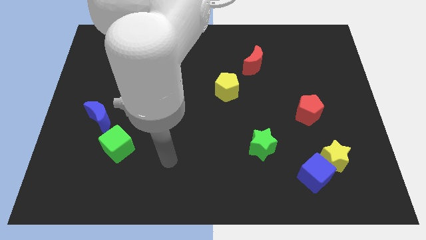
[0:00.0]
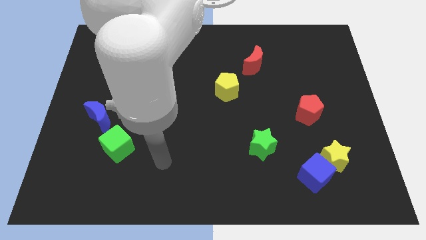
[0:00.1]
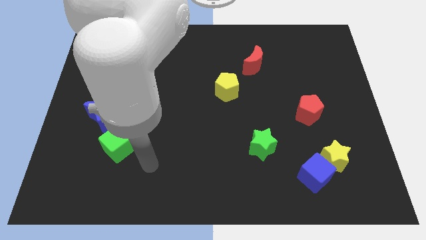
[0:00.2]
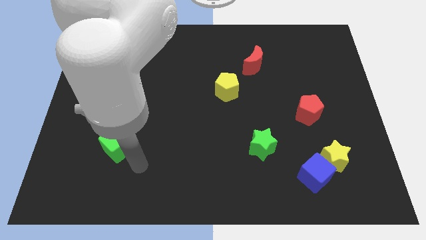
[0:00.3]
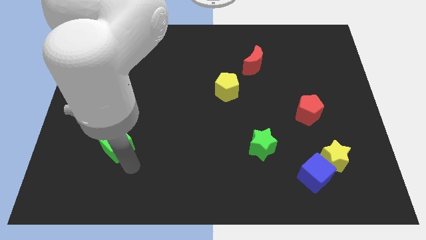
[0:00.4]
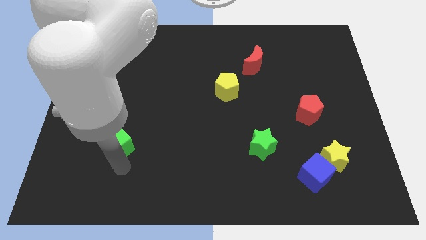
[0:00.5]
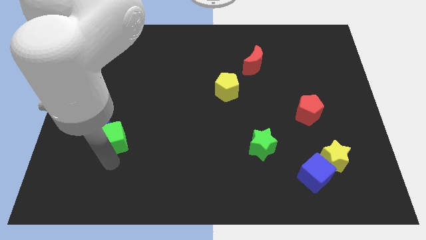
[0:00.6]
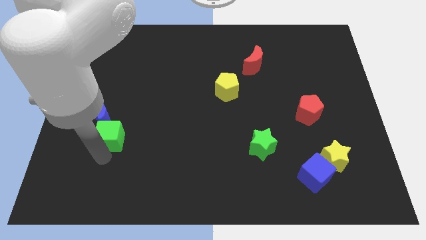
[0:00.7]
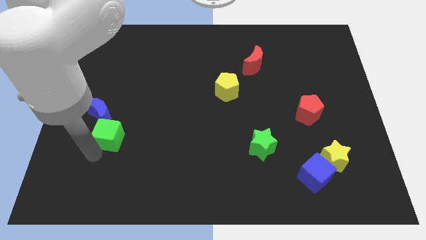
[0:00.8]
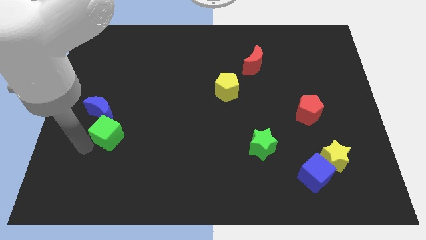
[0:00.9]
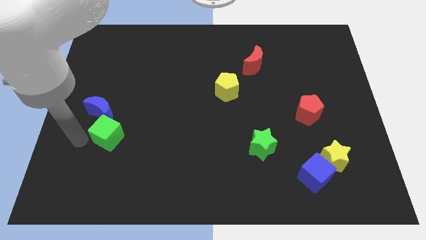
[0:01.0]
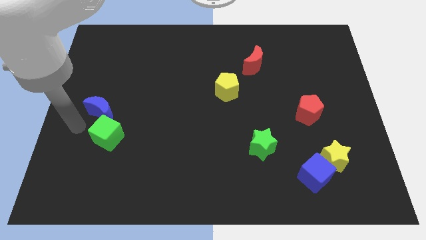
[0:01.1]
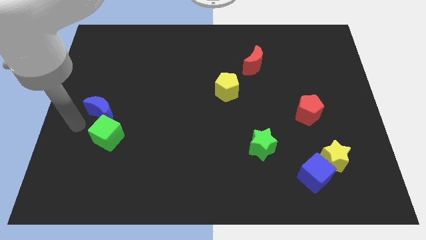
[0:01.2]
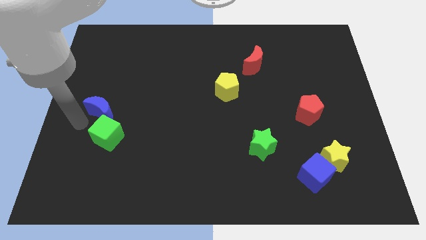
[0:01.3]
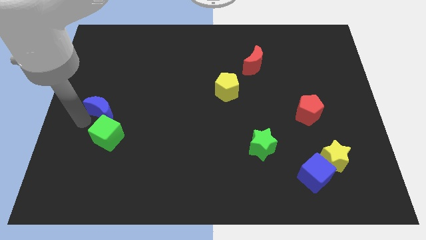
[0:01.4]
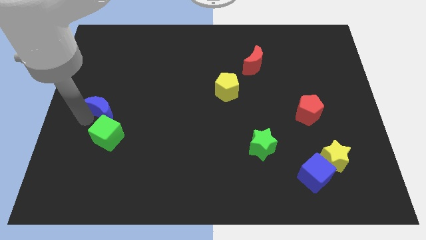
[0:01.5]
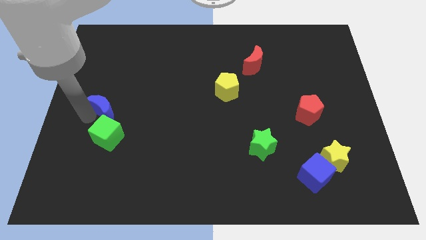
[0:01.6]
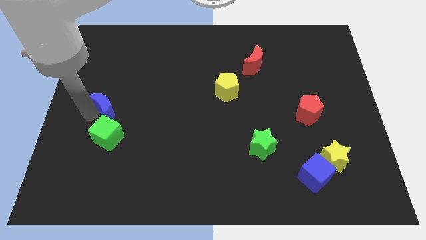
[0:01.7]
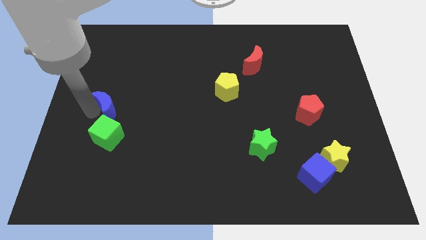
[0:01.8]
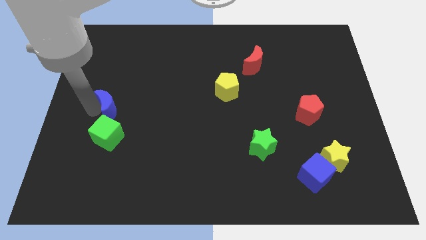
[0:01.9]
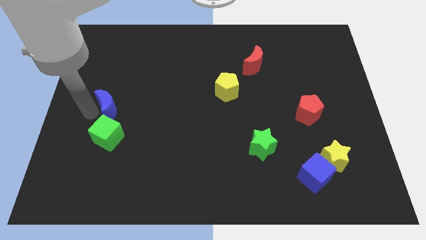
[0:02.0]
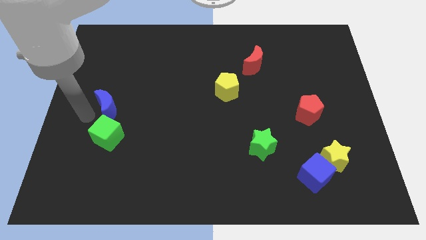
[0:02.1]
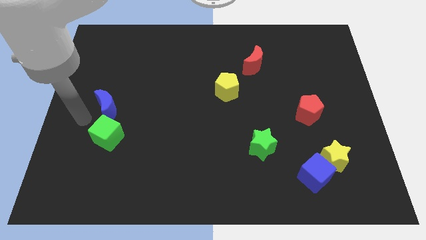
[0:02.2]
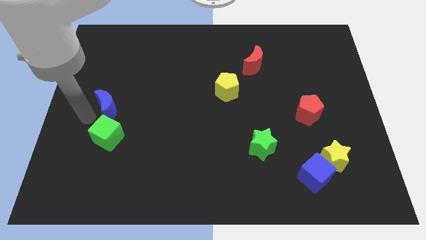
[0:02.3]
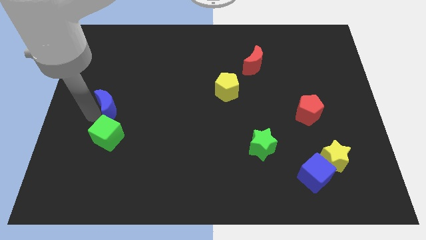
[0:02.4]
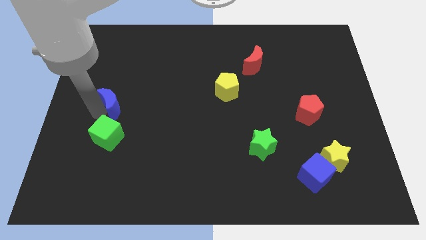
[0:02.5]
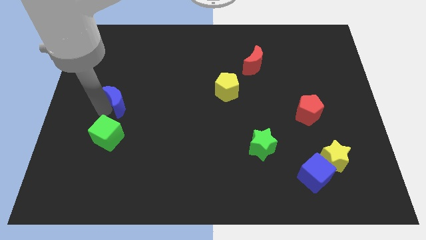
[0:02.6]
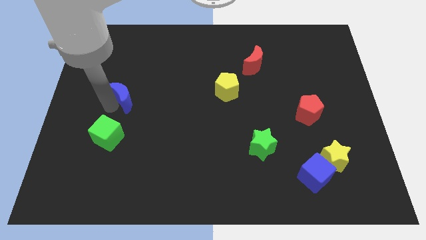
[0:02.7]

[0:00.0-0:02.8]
slightly slide the blue moon diagonally upwards and to the right

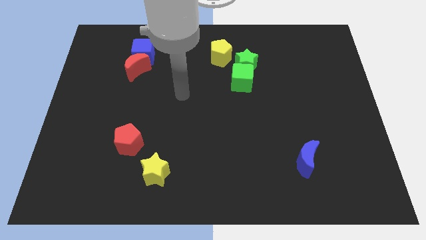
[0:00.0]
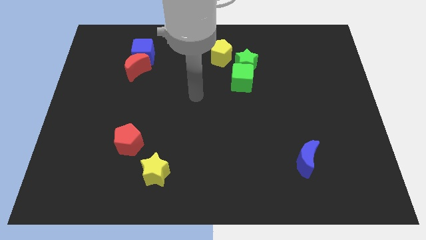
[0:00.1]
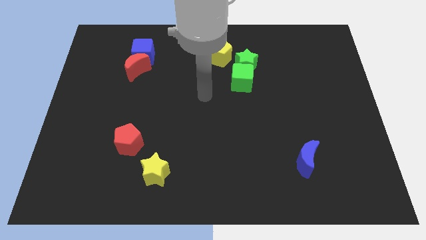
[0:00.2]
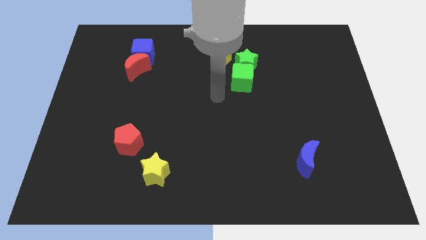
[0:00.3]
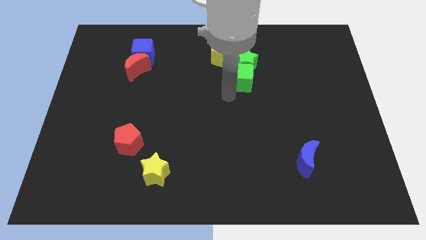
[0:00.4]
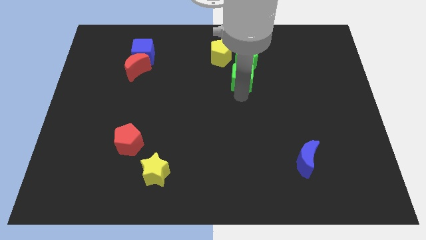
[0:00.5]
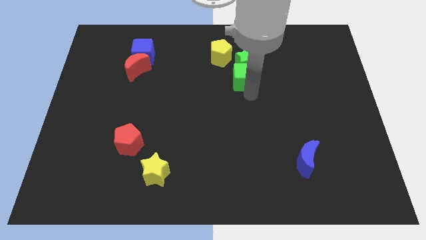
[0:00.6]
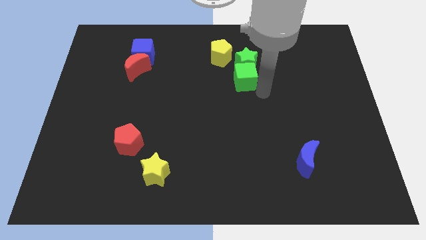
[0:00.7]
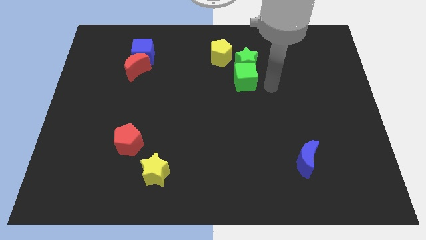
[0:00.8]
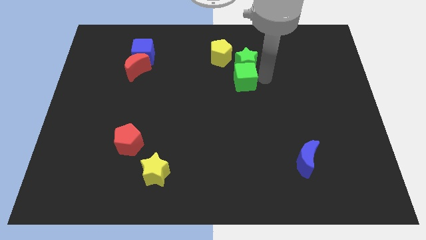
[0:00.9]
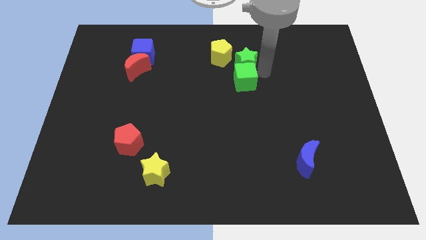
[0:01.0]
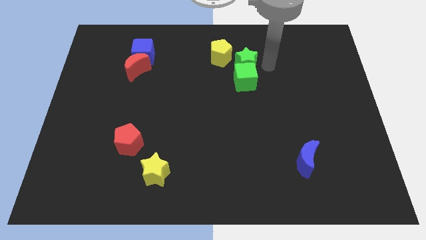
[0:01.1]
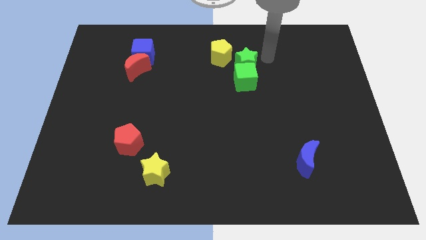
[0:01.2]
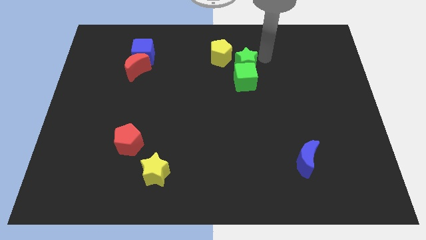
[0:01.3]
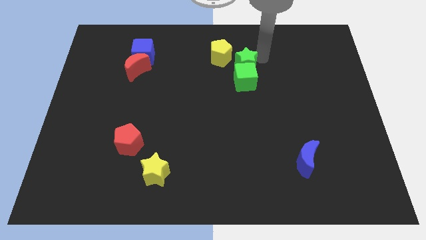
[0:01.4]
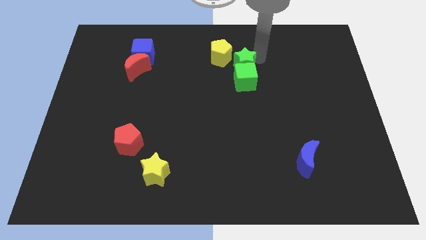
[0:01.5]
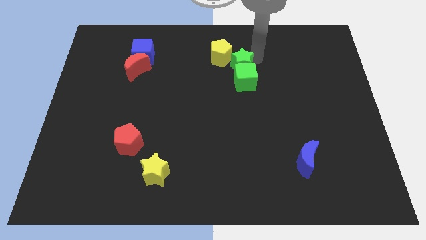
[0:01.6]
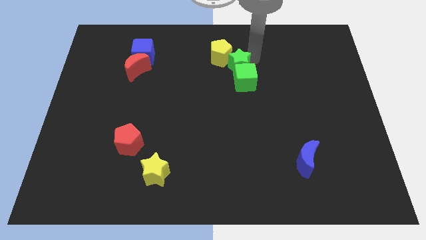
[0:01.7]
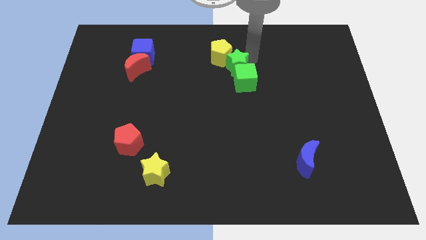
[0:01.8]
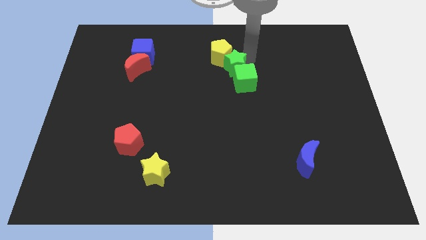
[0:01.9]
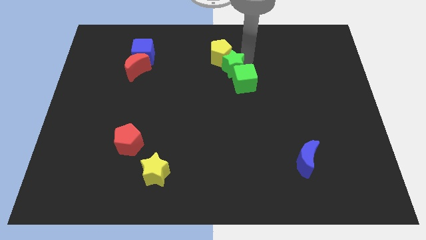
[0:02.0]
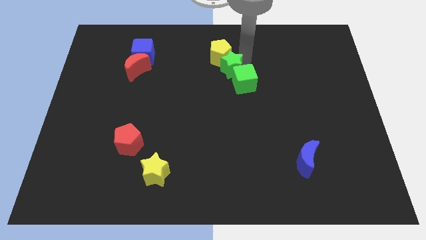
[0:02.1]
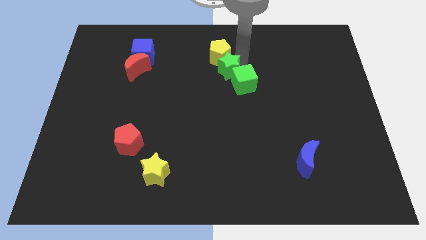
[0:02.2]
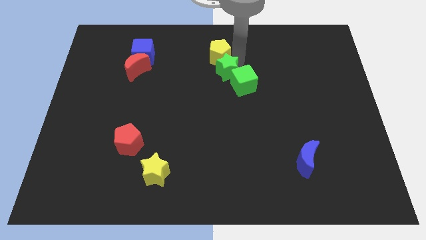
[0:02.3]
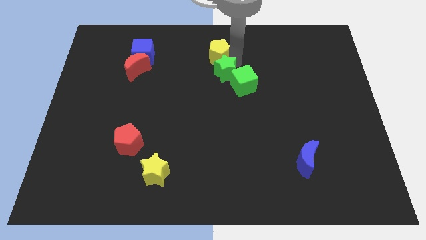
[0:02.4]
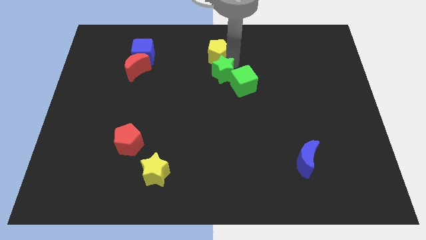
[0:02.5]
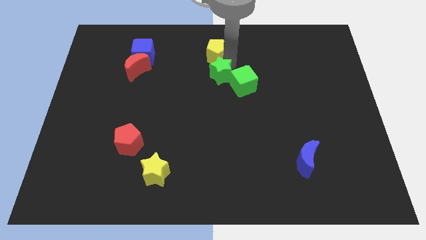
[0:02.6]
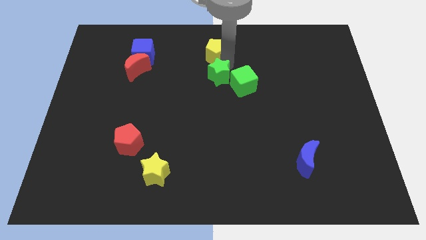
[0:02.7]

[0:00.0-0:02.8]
move the green star diagonally down and left slightly

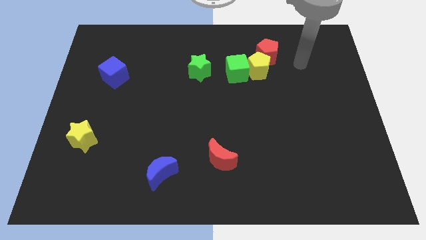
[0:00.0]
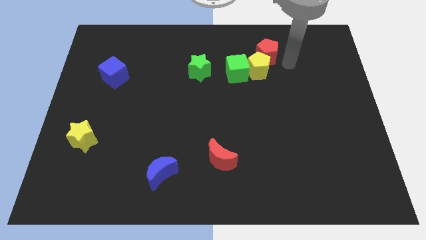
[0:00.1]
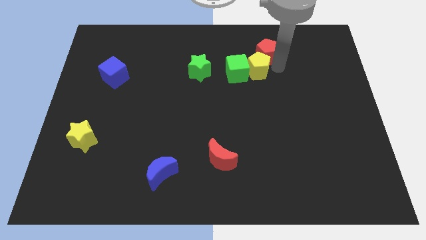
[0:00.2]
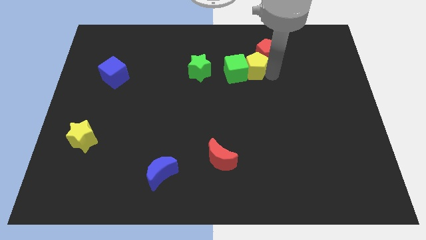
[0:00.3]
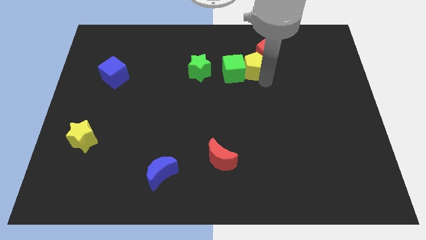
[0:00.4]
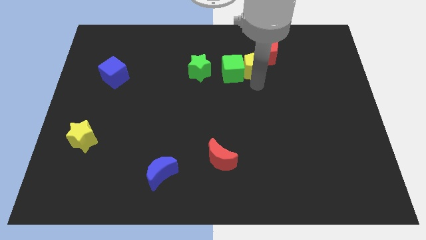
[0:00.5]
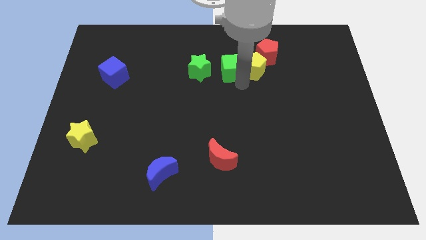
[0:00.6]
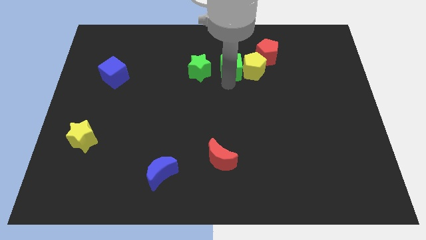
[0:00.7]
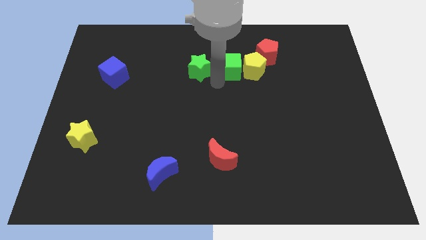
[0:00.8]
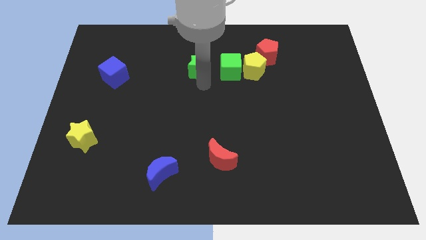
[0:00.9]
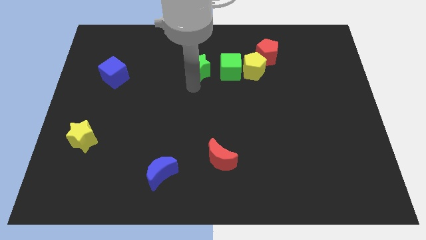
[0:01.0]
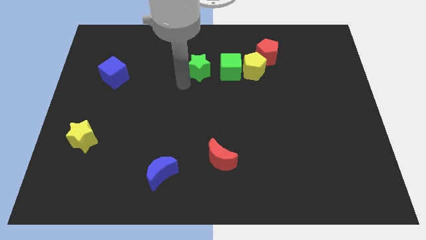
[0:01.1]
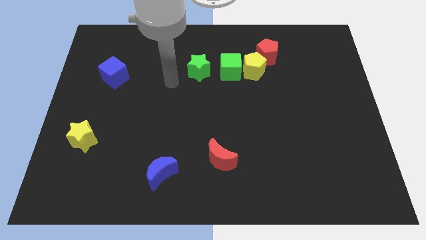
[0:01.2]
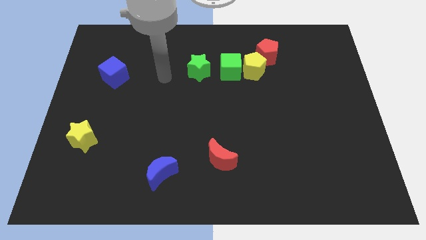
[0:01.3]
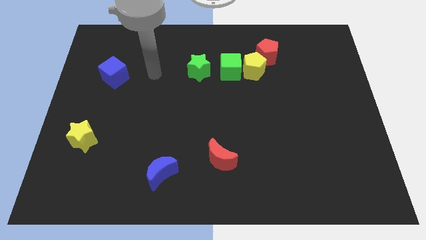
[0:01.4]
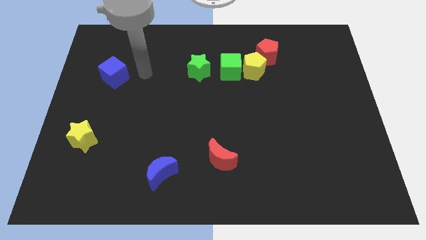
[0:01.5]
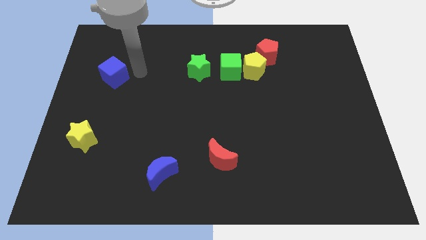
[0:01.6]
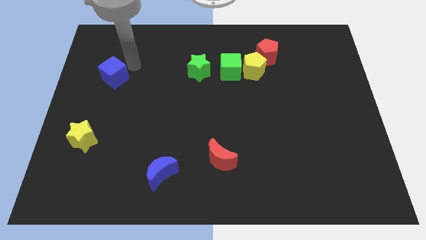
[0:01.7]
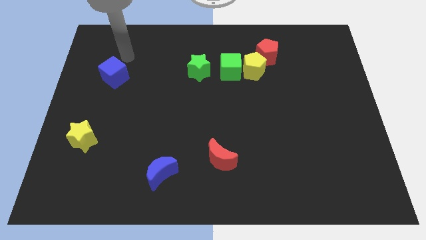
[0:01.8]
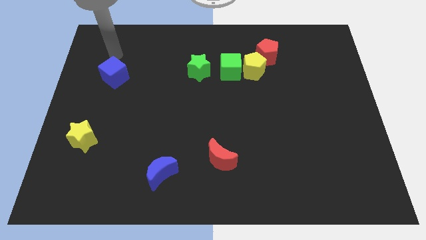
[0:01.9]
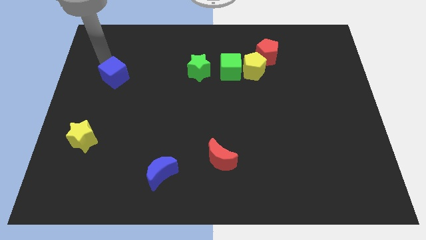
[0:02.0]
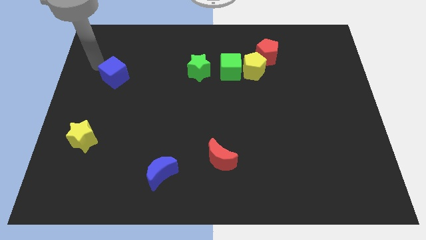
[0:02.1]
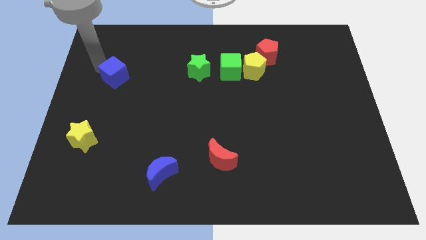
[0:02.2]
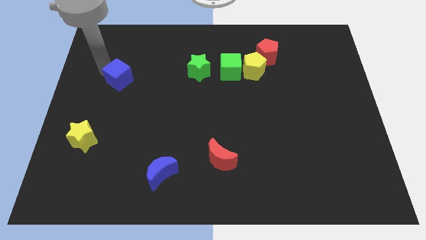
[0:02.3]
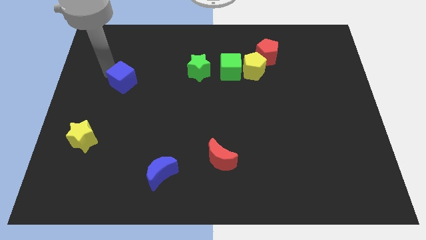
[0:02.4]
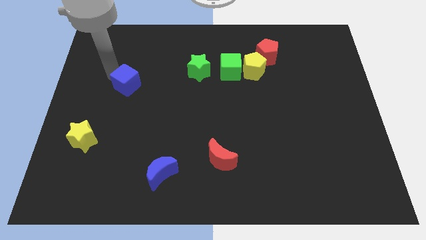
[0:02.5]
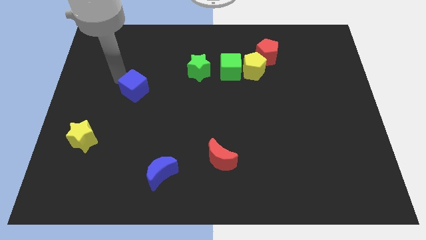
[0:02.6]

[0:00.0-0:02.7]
push the blue cube somewhat downwards and to the right

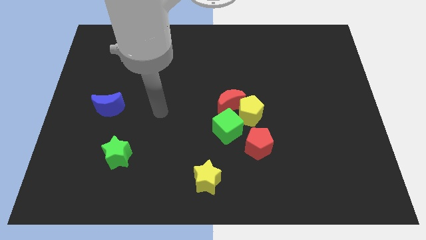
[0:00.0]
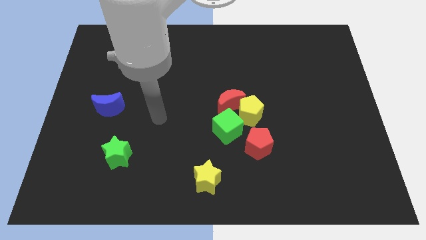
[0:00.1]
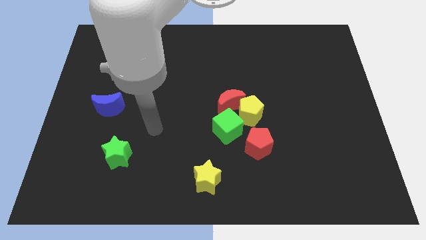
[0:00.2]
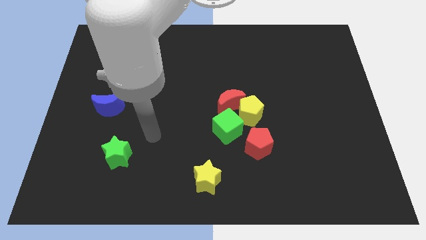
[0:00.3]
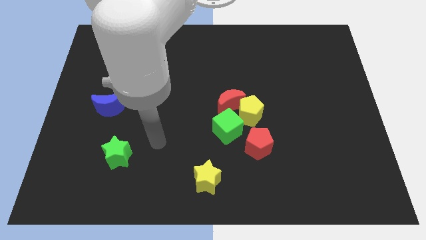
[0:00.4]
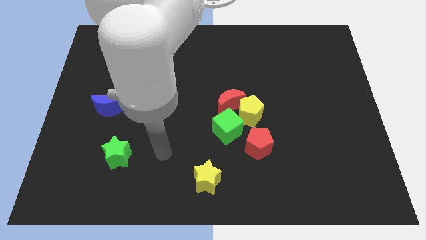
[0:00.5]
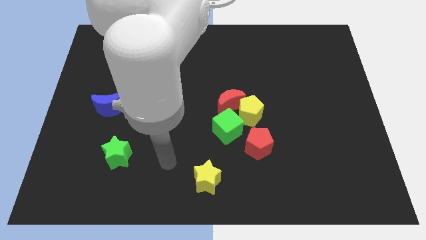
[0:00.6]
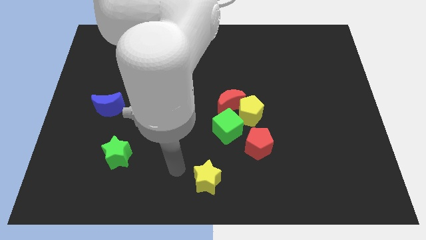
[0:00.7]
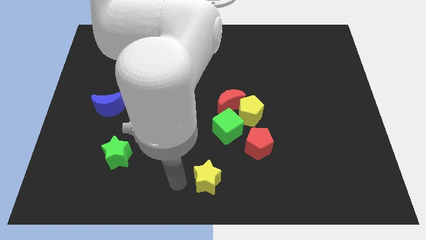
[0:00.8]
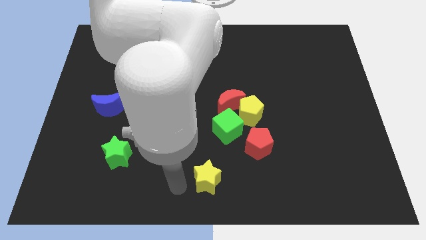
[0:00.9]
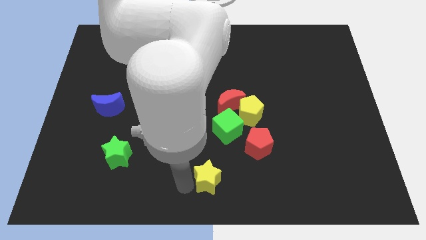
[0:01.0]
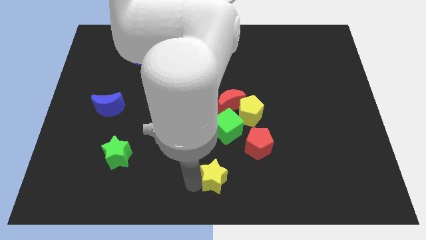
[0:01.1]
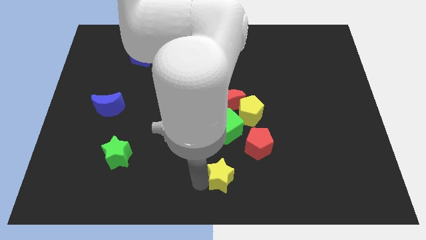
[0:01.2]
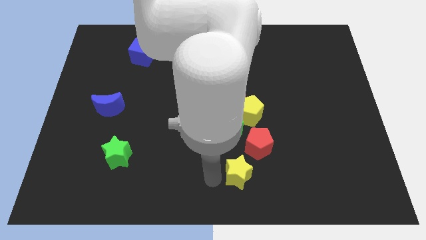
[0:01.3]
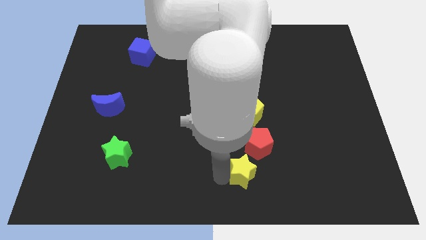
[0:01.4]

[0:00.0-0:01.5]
slide the yellow star right somewhat
